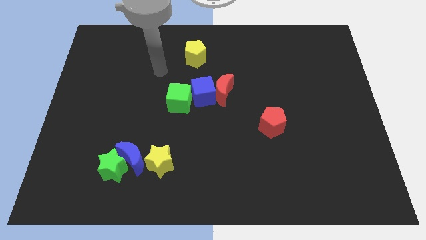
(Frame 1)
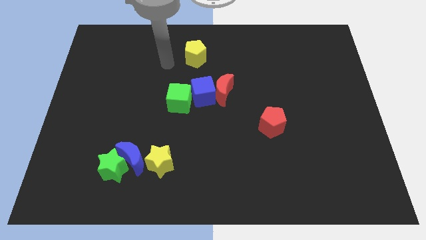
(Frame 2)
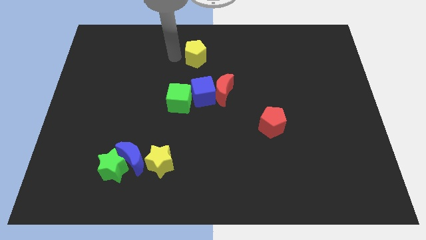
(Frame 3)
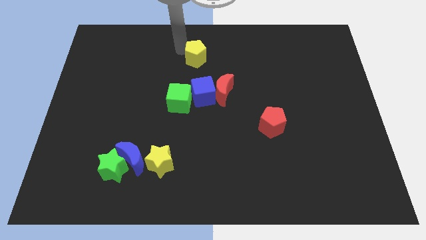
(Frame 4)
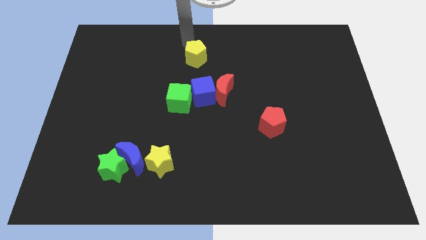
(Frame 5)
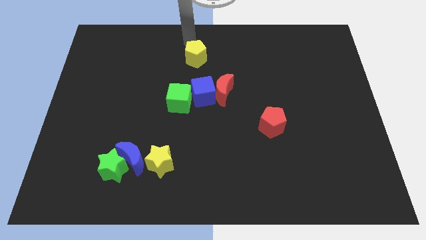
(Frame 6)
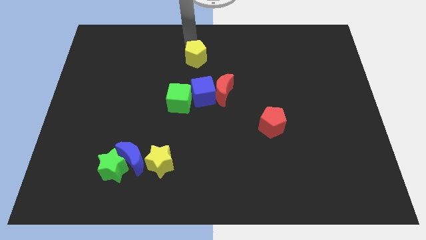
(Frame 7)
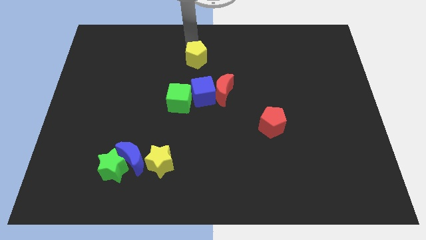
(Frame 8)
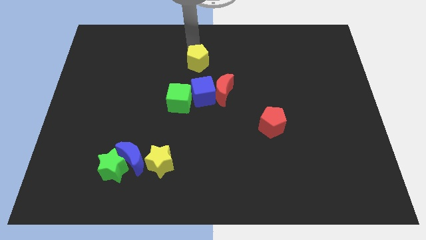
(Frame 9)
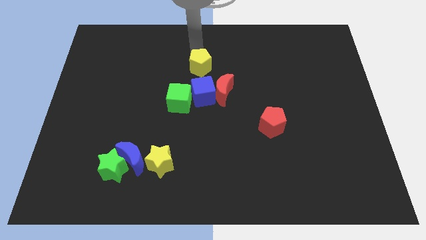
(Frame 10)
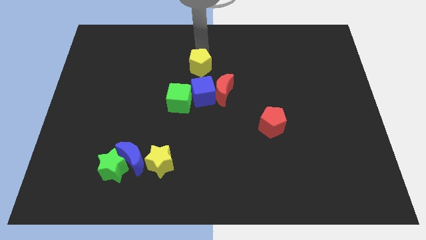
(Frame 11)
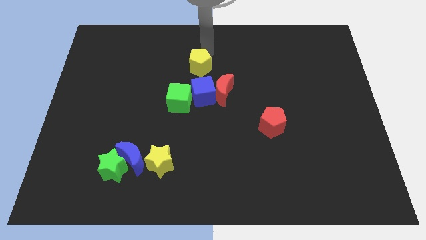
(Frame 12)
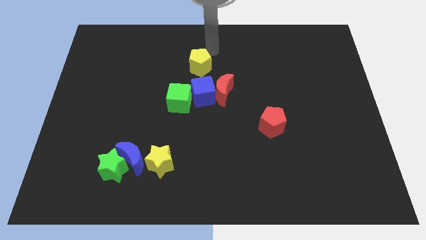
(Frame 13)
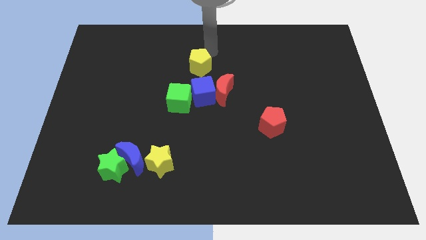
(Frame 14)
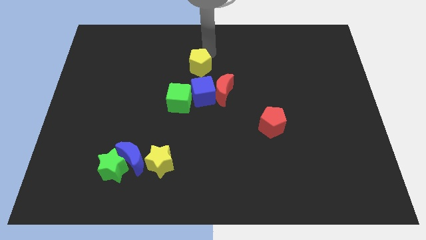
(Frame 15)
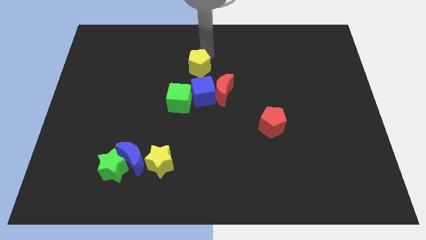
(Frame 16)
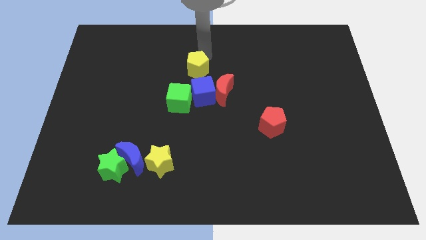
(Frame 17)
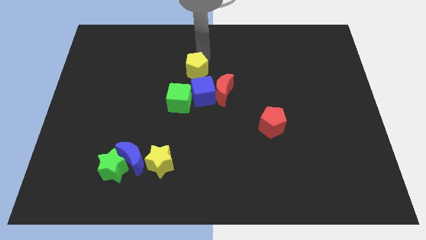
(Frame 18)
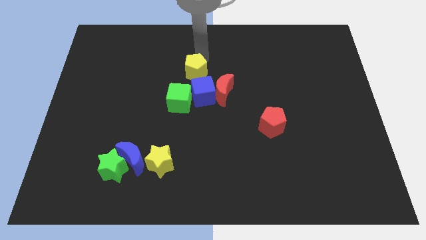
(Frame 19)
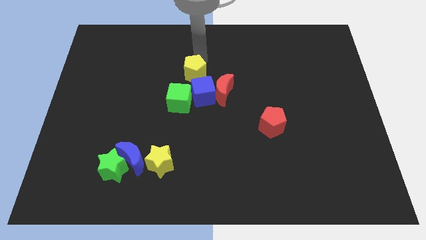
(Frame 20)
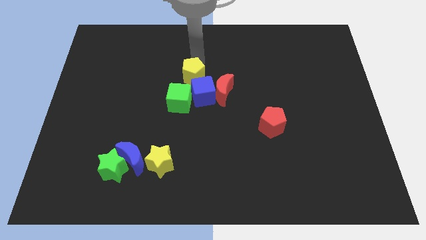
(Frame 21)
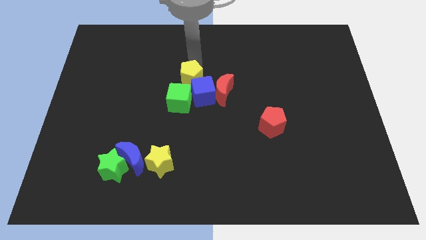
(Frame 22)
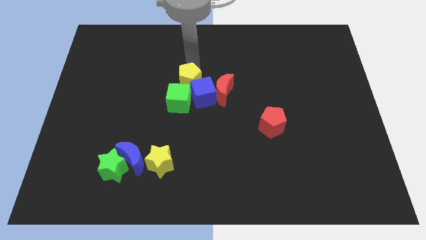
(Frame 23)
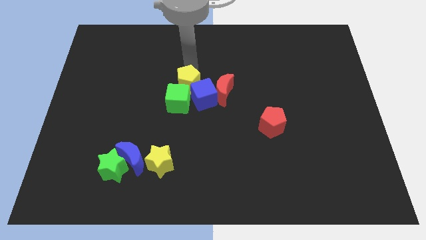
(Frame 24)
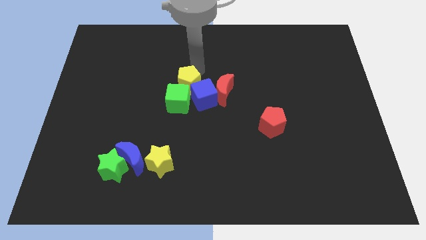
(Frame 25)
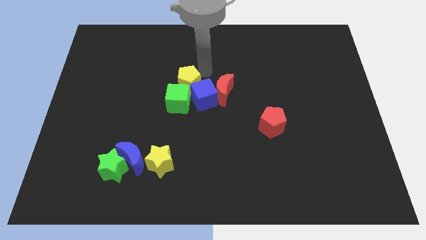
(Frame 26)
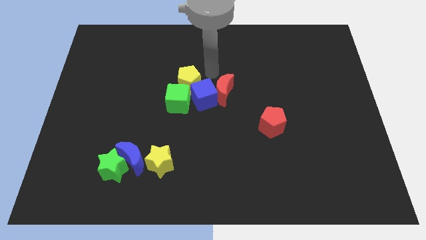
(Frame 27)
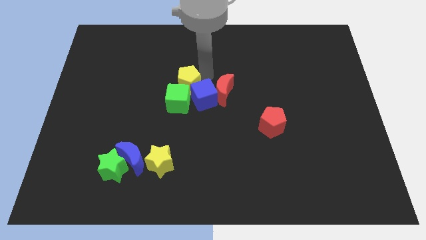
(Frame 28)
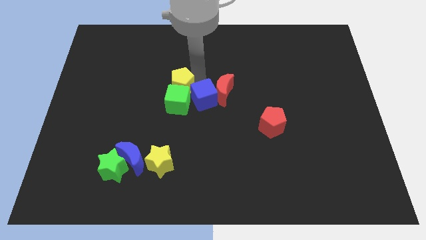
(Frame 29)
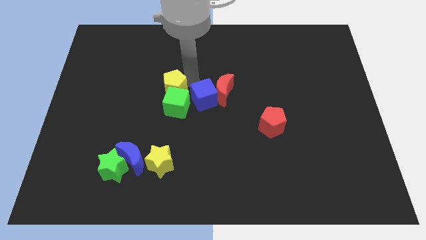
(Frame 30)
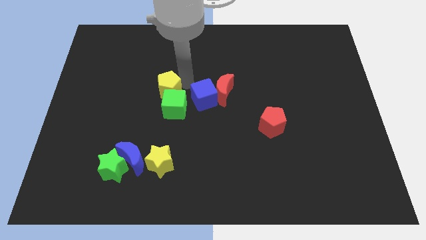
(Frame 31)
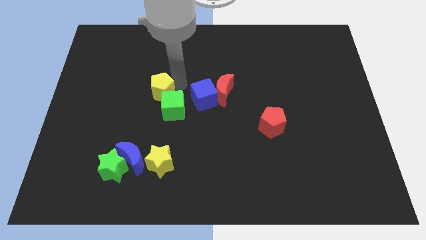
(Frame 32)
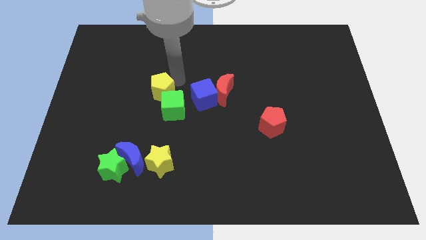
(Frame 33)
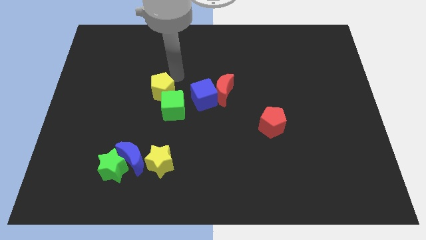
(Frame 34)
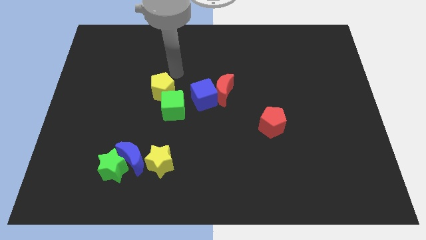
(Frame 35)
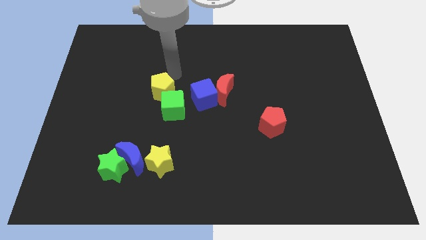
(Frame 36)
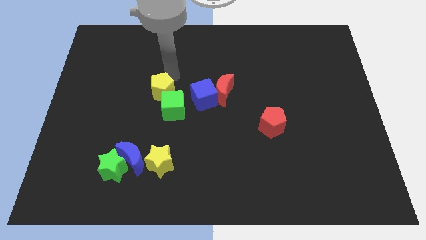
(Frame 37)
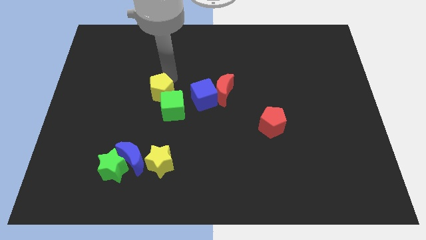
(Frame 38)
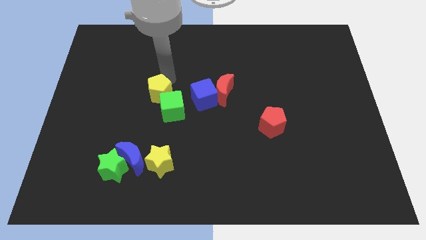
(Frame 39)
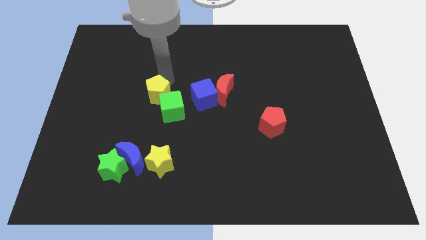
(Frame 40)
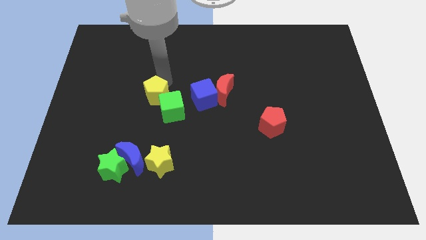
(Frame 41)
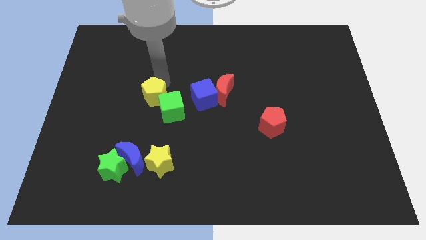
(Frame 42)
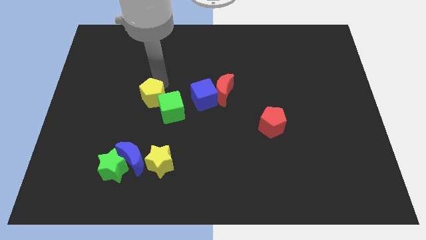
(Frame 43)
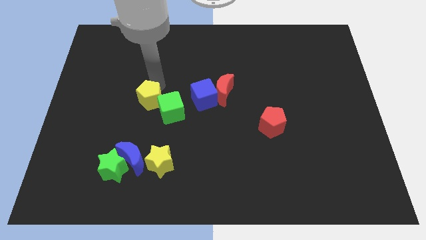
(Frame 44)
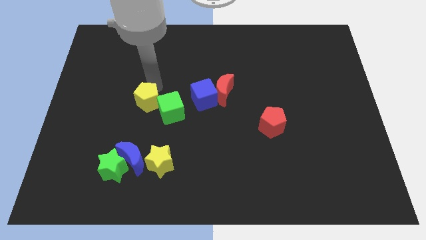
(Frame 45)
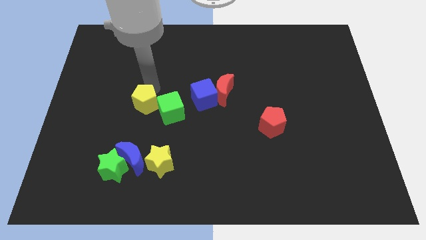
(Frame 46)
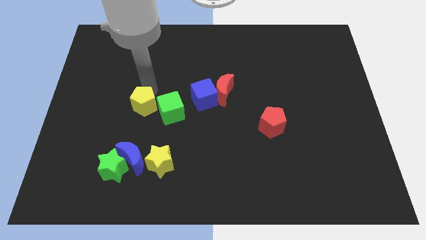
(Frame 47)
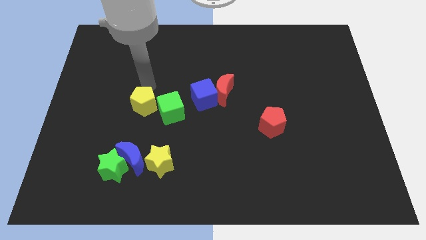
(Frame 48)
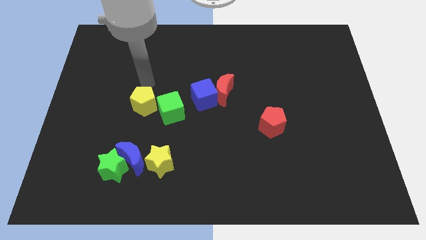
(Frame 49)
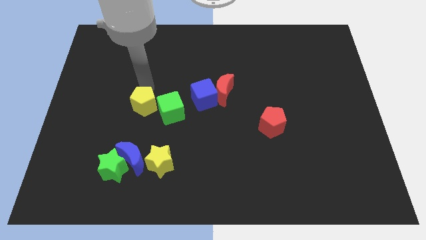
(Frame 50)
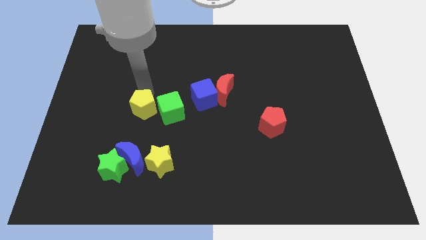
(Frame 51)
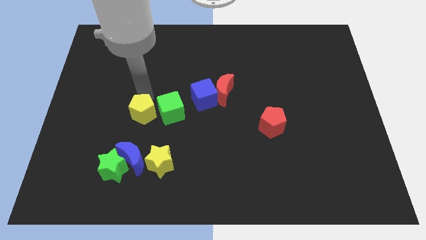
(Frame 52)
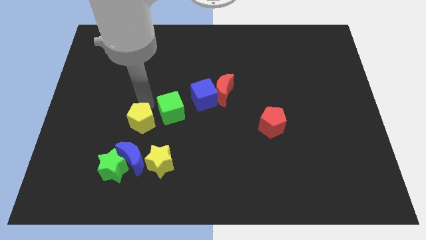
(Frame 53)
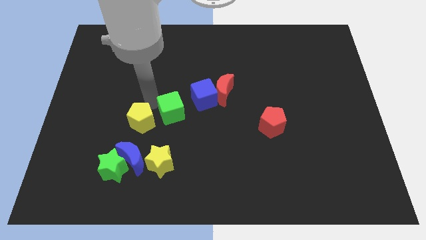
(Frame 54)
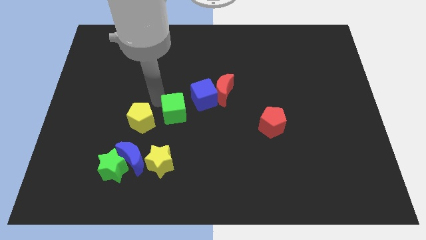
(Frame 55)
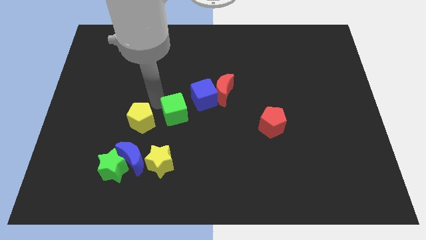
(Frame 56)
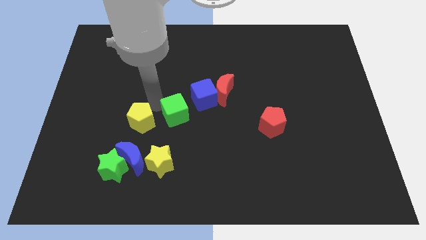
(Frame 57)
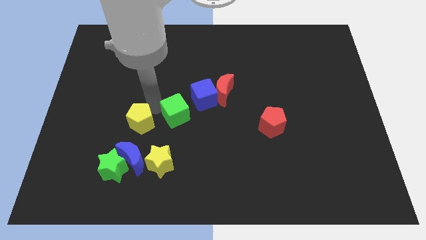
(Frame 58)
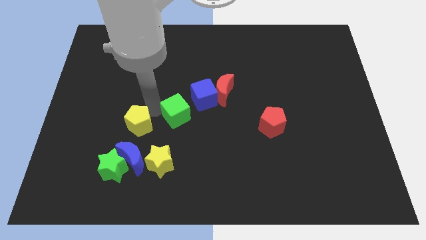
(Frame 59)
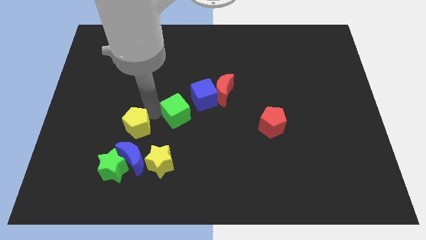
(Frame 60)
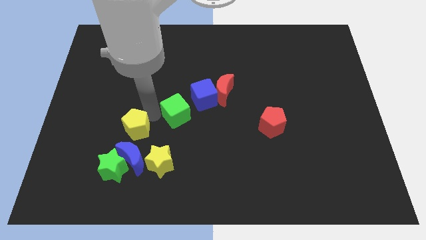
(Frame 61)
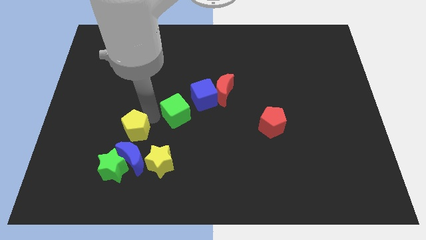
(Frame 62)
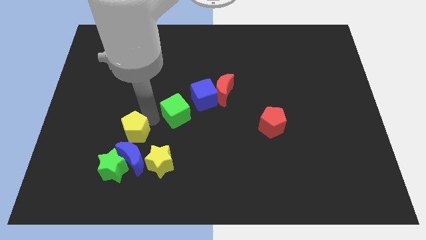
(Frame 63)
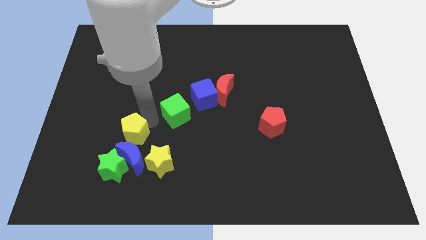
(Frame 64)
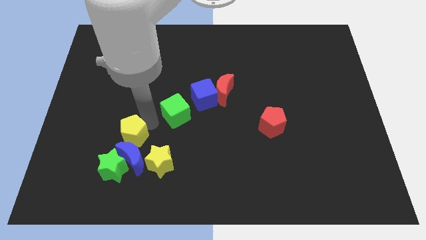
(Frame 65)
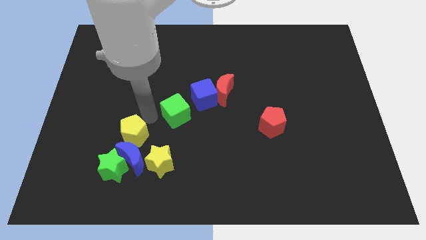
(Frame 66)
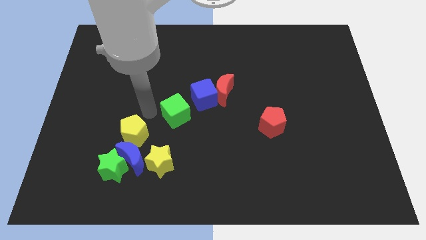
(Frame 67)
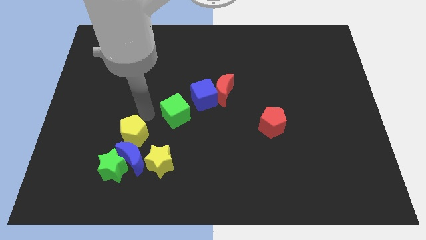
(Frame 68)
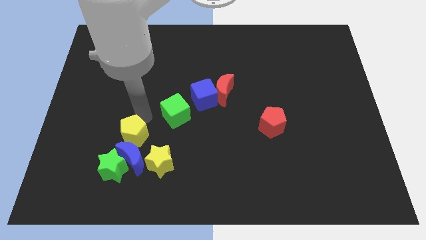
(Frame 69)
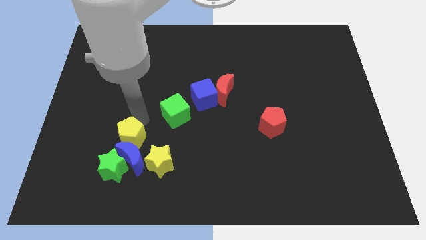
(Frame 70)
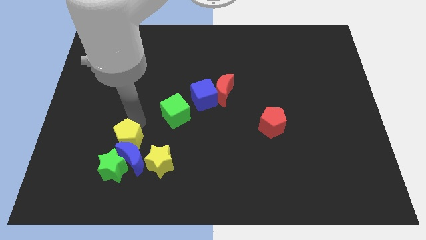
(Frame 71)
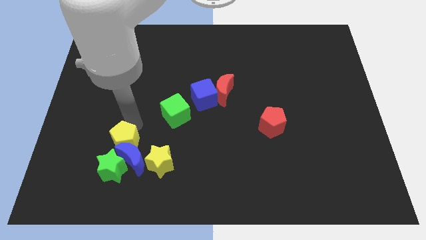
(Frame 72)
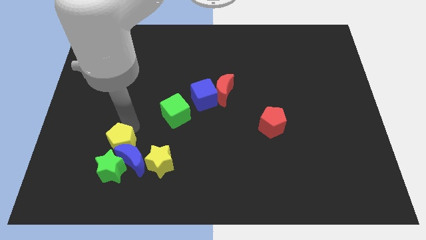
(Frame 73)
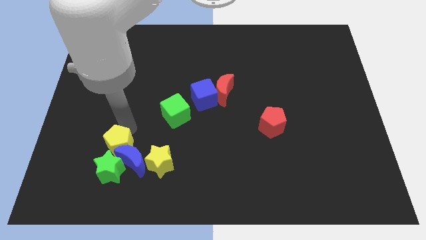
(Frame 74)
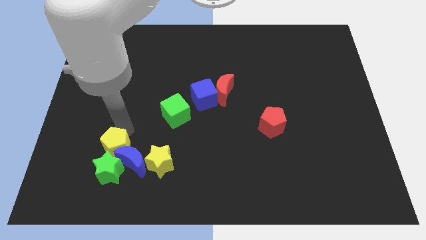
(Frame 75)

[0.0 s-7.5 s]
slide the yellow pentagon close to the green star
